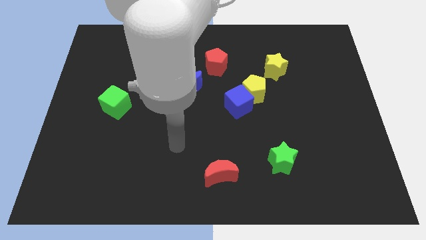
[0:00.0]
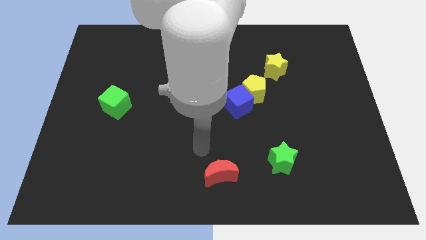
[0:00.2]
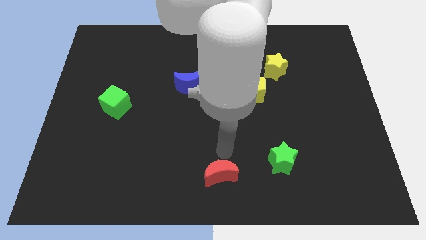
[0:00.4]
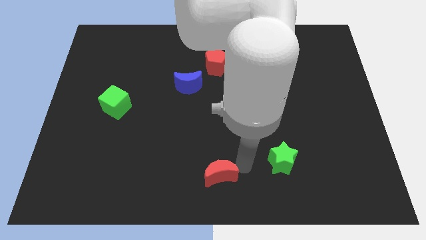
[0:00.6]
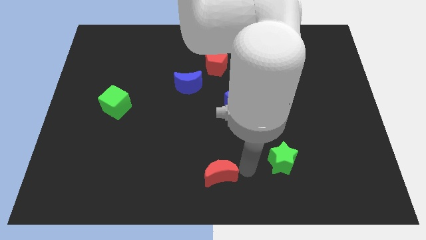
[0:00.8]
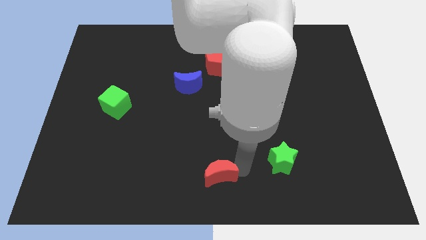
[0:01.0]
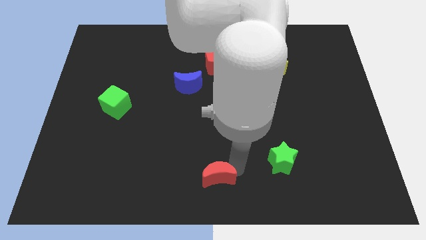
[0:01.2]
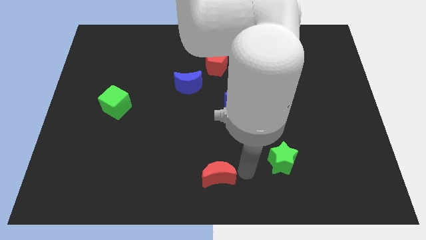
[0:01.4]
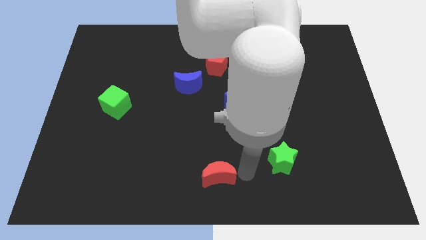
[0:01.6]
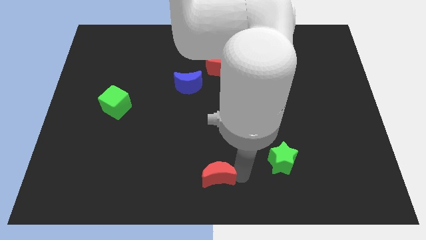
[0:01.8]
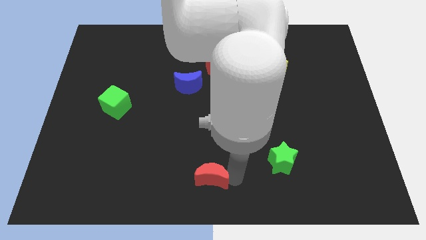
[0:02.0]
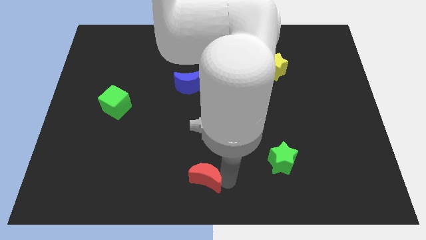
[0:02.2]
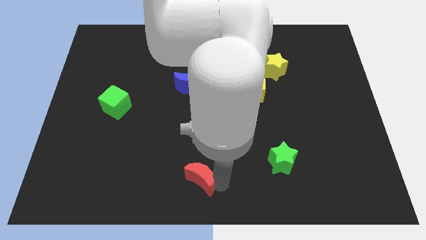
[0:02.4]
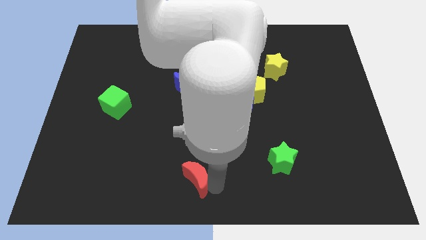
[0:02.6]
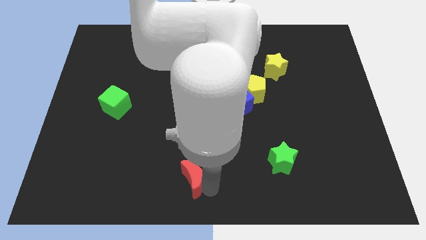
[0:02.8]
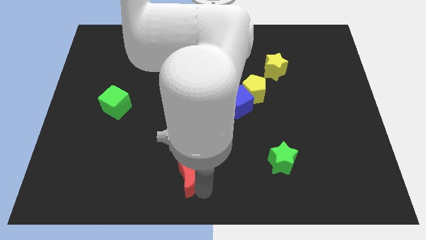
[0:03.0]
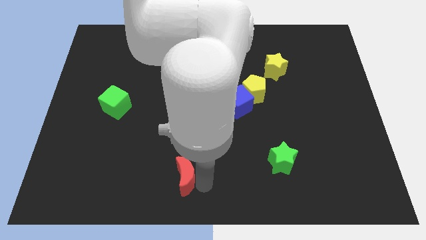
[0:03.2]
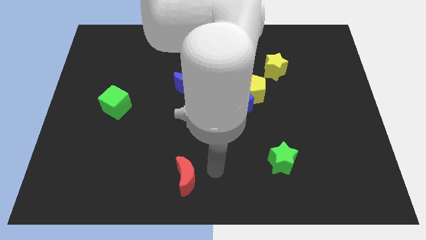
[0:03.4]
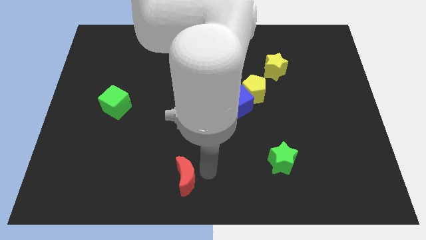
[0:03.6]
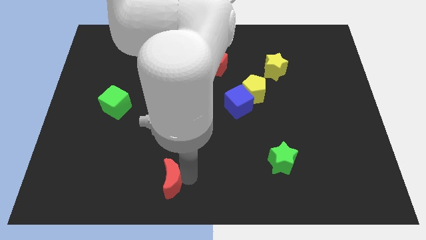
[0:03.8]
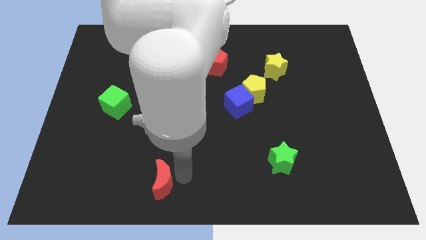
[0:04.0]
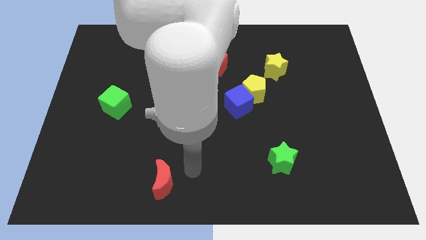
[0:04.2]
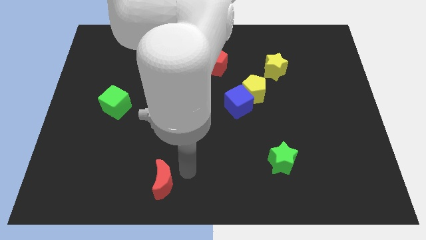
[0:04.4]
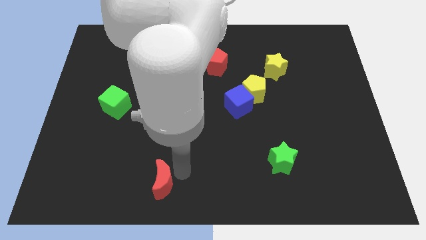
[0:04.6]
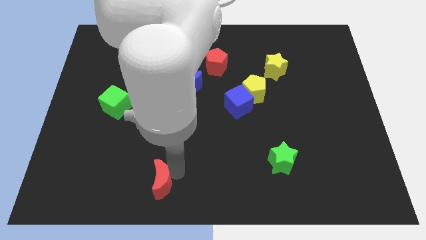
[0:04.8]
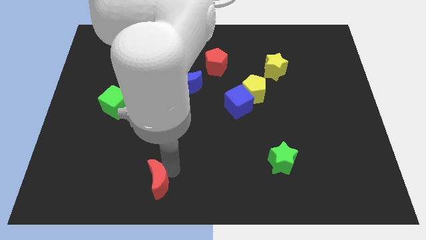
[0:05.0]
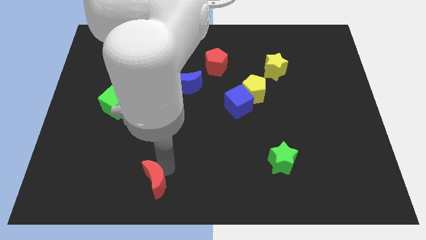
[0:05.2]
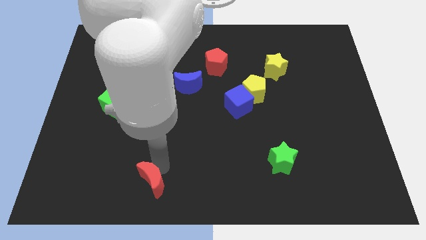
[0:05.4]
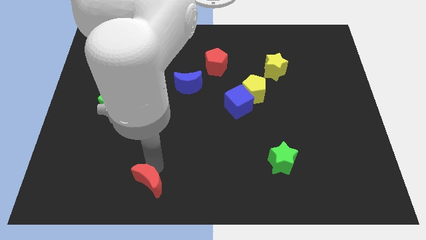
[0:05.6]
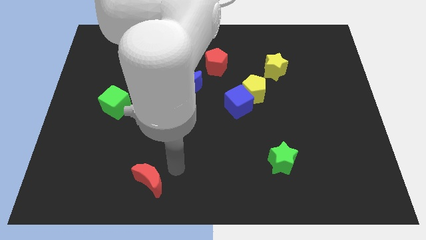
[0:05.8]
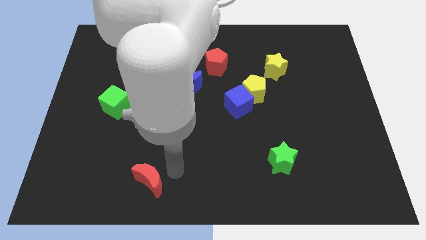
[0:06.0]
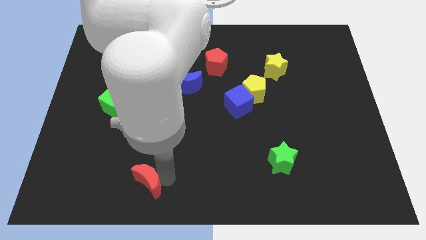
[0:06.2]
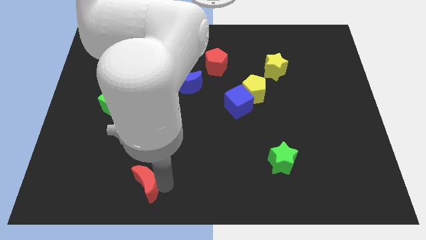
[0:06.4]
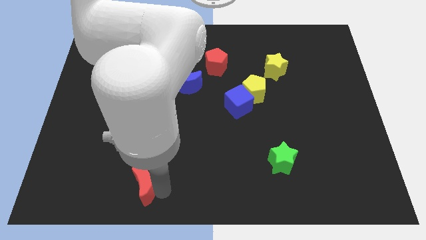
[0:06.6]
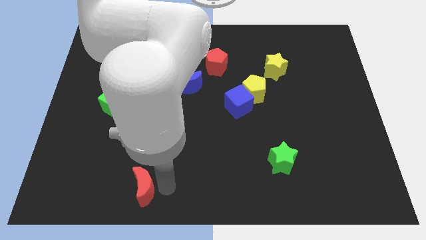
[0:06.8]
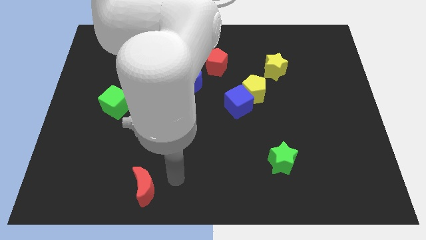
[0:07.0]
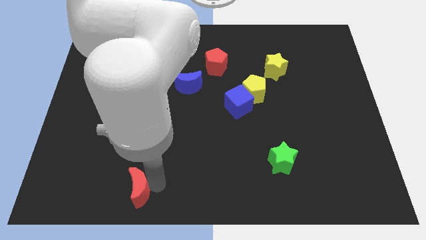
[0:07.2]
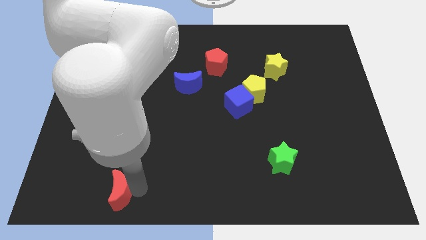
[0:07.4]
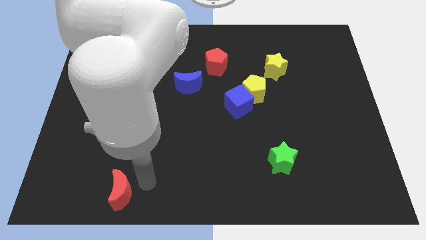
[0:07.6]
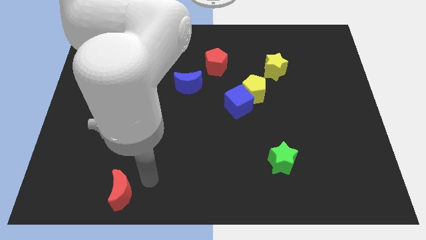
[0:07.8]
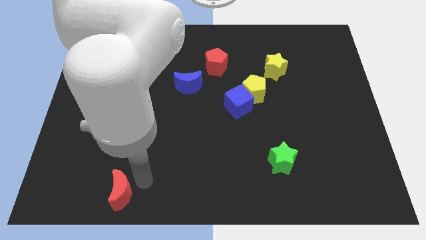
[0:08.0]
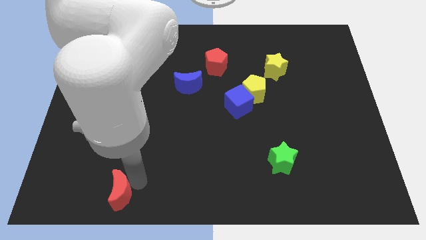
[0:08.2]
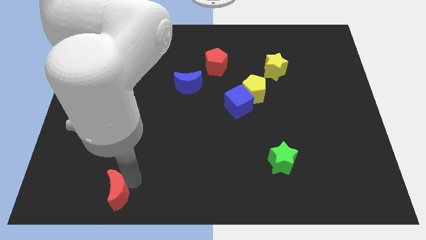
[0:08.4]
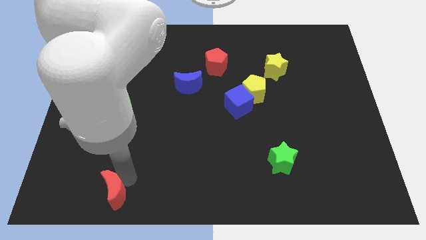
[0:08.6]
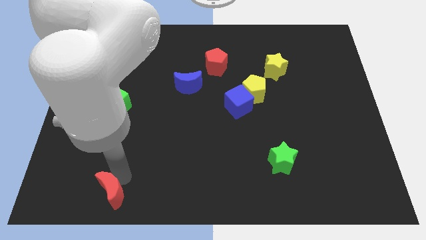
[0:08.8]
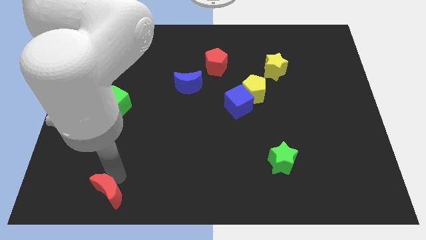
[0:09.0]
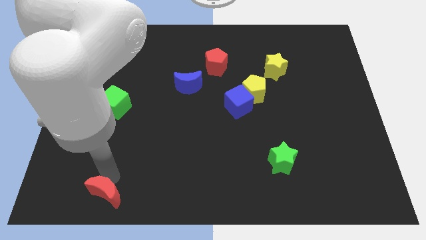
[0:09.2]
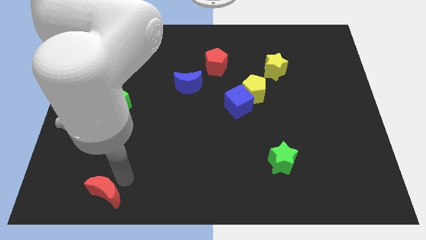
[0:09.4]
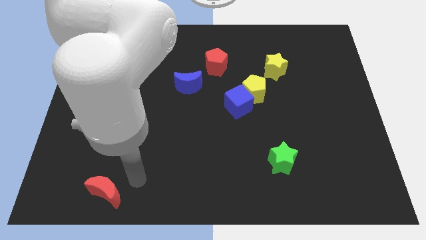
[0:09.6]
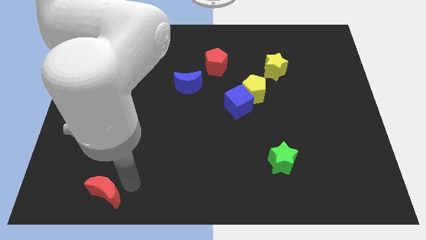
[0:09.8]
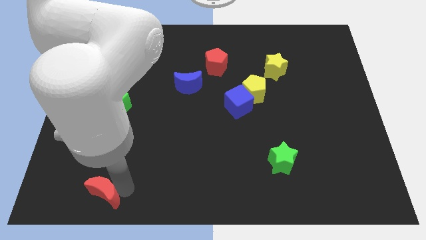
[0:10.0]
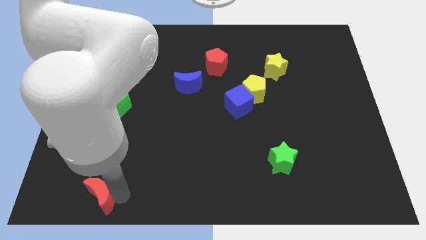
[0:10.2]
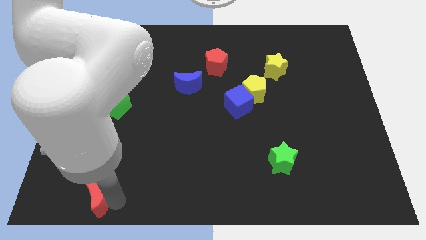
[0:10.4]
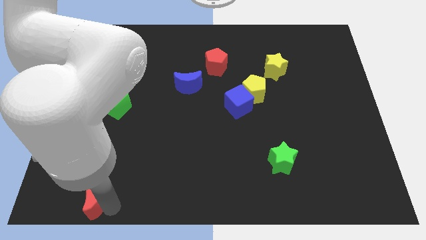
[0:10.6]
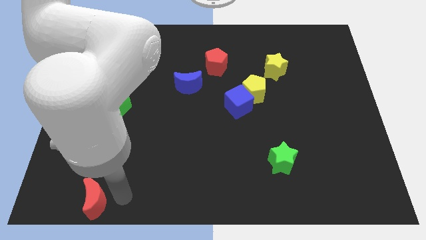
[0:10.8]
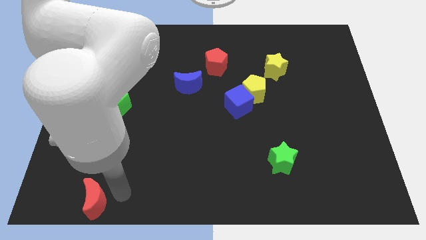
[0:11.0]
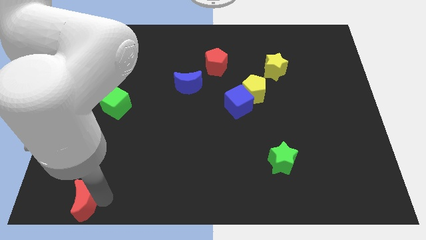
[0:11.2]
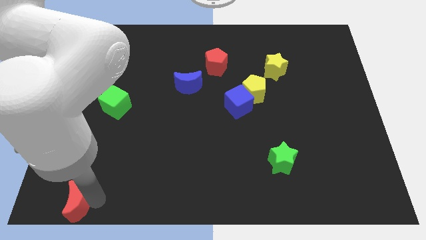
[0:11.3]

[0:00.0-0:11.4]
slide the red moon to the bottom left corner

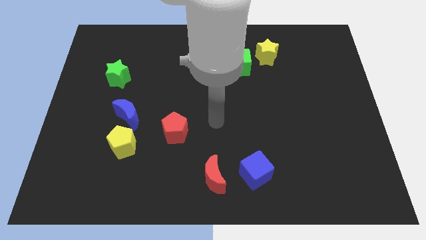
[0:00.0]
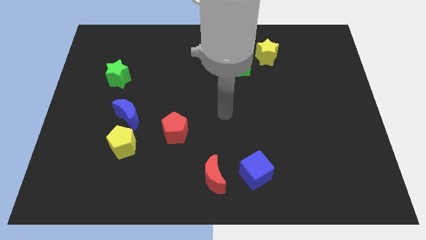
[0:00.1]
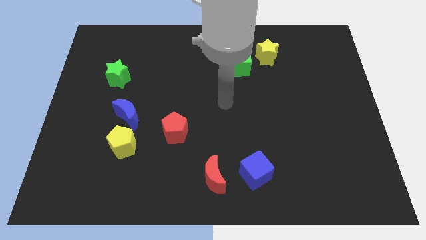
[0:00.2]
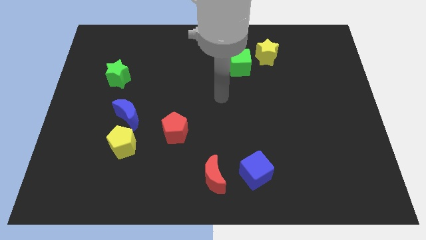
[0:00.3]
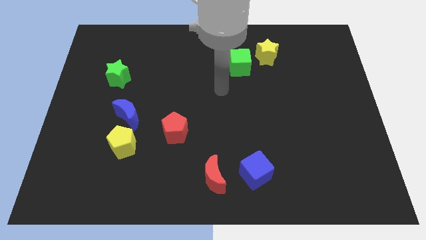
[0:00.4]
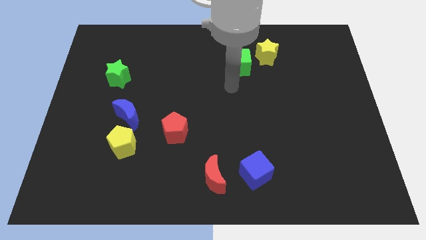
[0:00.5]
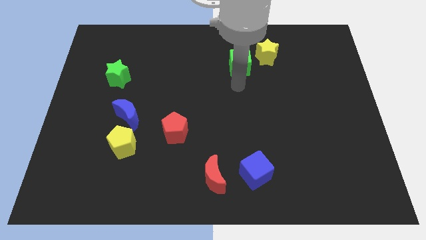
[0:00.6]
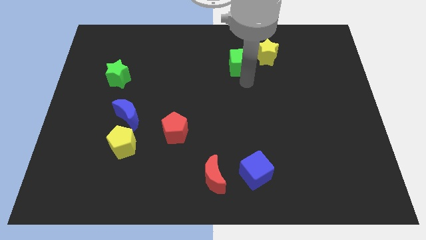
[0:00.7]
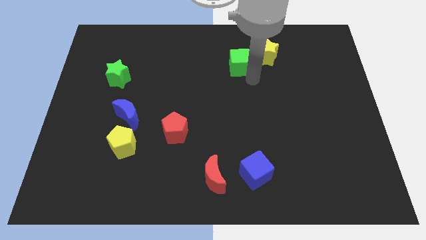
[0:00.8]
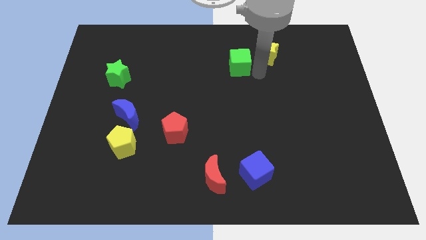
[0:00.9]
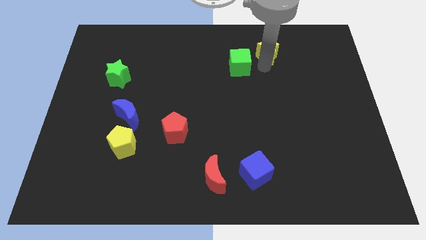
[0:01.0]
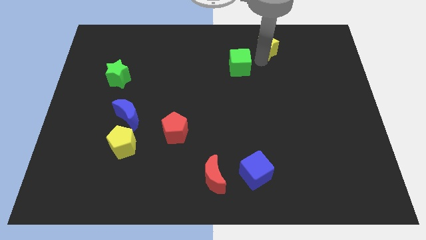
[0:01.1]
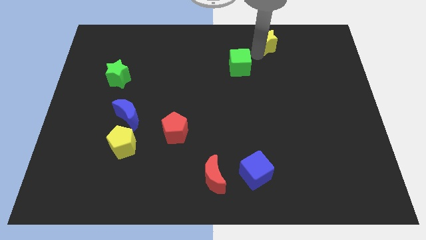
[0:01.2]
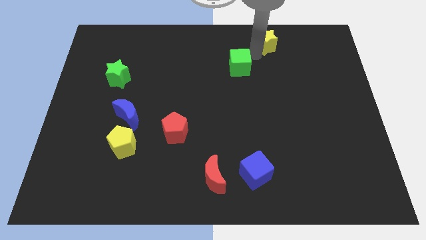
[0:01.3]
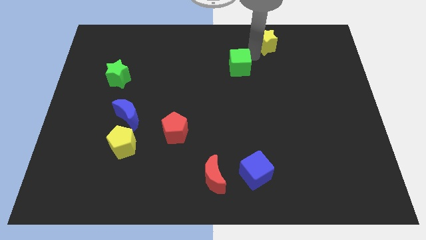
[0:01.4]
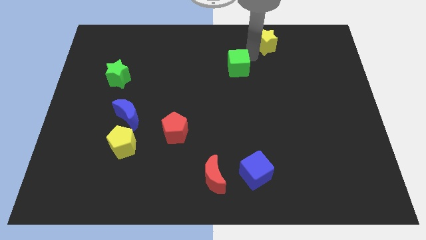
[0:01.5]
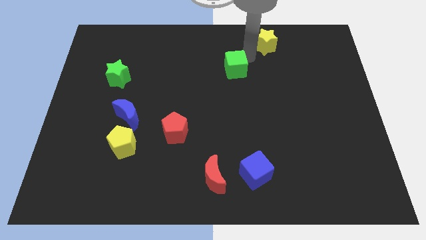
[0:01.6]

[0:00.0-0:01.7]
push the green cube to the center
